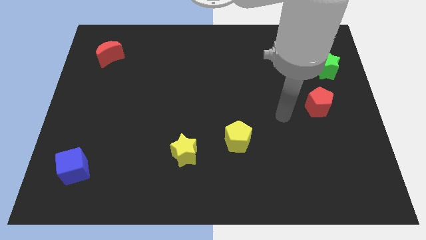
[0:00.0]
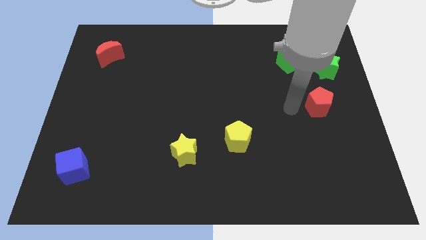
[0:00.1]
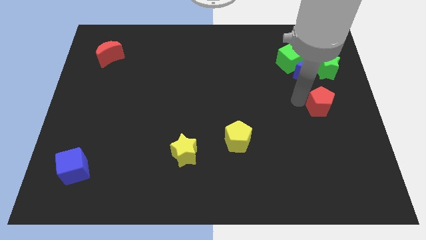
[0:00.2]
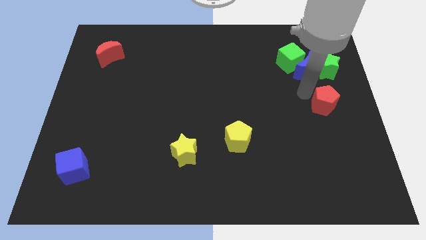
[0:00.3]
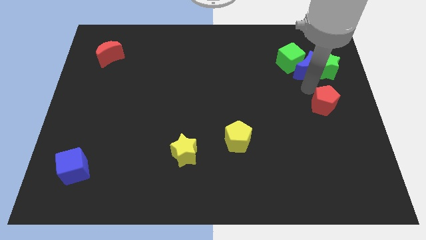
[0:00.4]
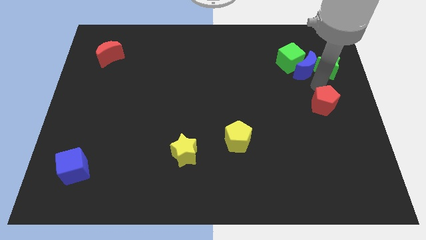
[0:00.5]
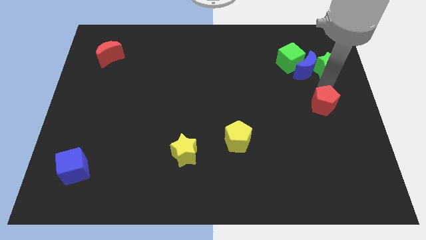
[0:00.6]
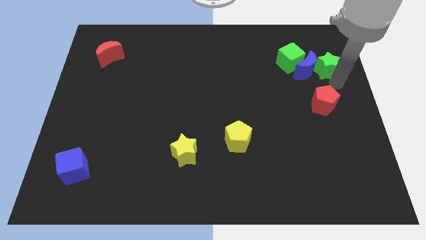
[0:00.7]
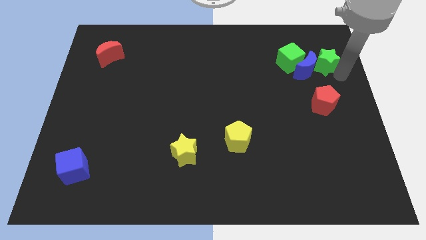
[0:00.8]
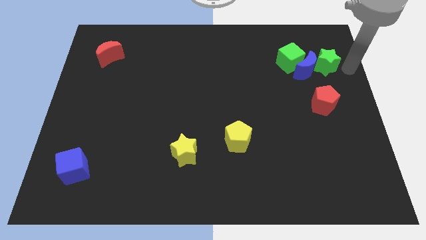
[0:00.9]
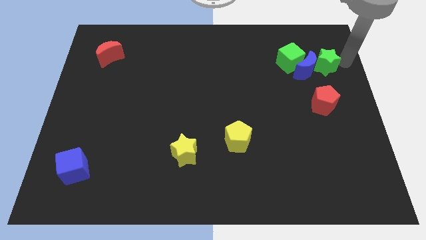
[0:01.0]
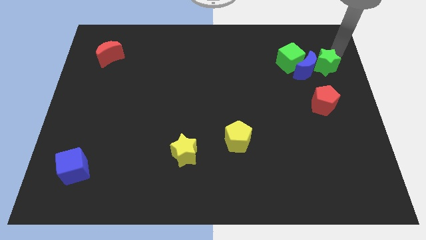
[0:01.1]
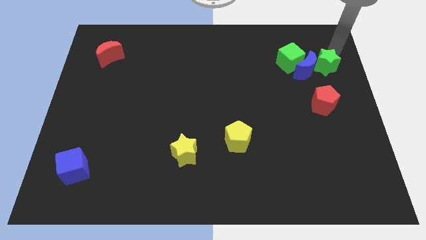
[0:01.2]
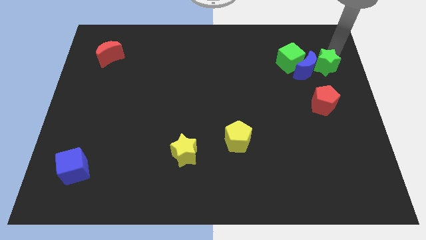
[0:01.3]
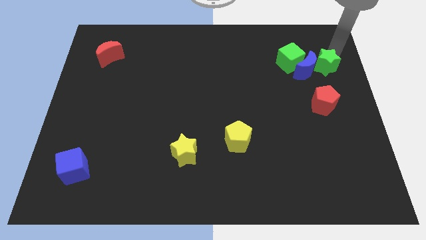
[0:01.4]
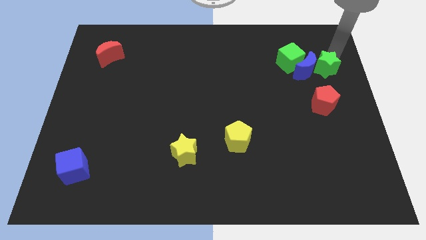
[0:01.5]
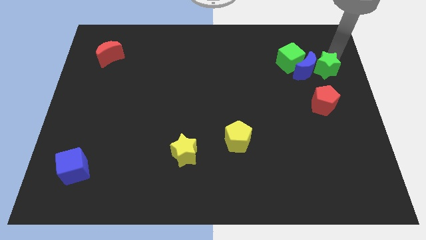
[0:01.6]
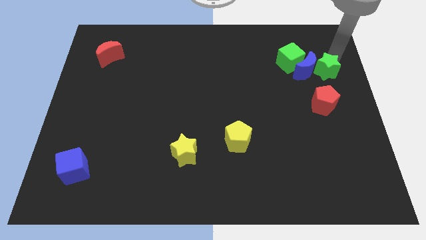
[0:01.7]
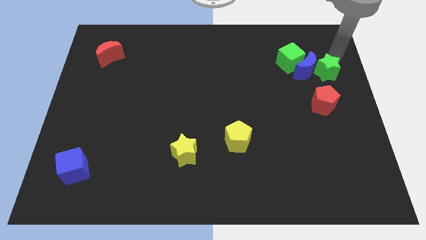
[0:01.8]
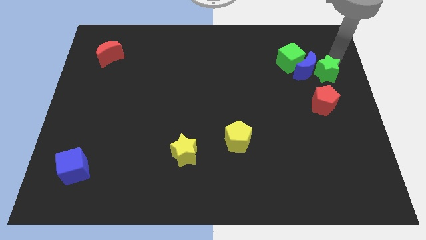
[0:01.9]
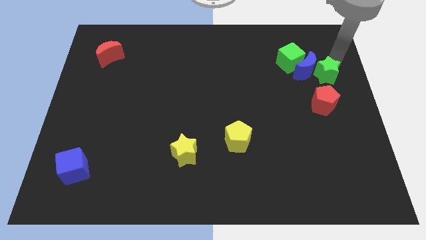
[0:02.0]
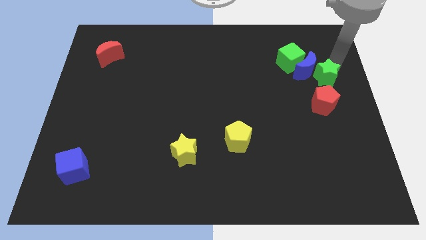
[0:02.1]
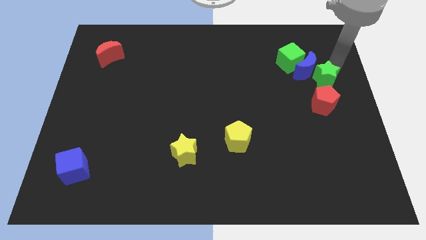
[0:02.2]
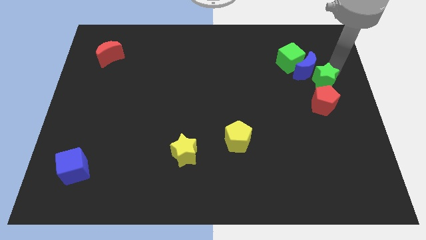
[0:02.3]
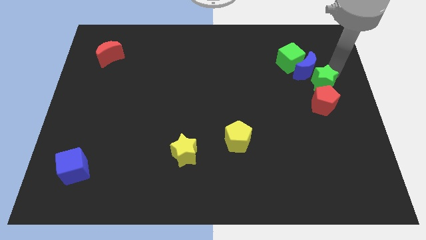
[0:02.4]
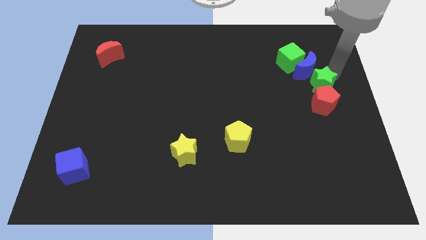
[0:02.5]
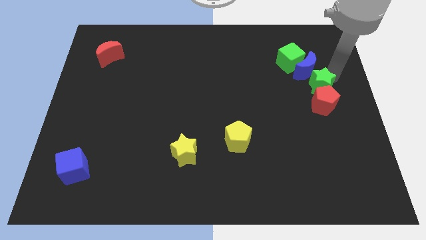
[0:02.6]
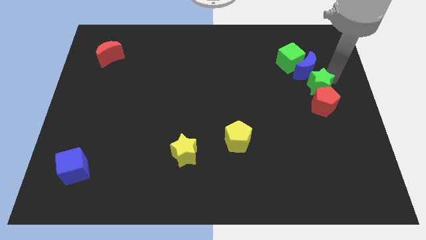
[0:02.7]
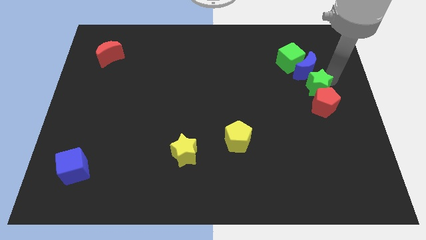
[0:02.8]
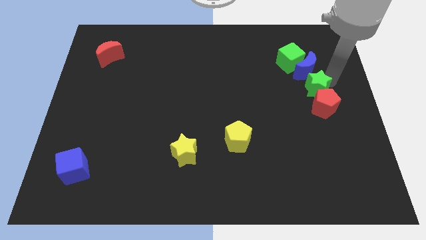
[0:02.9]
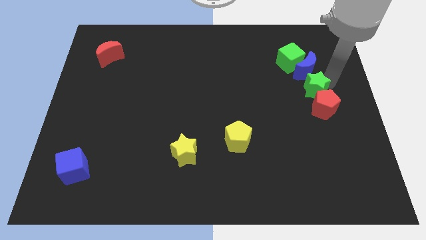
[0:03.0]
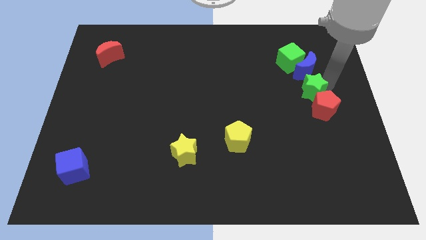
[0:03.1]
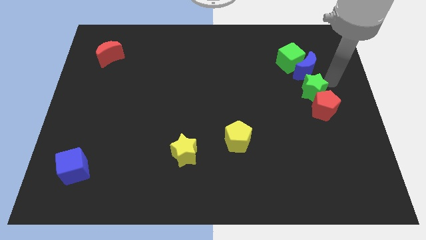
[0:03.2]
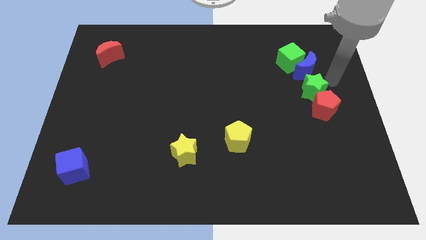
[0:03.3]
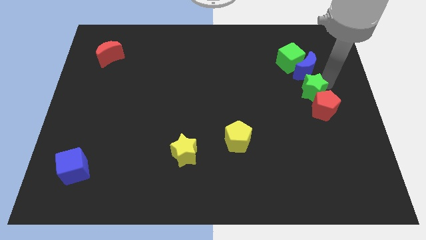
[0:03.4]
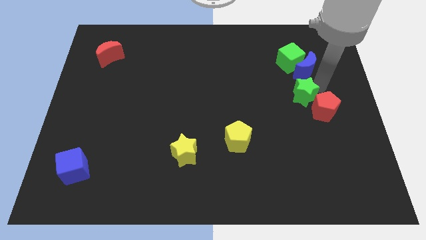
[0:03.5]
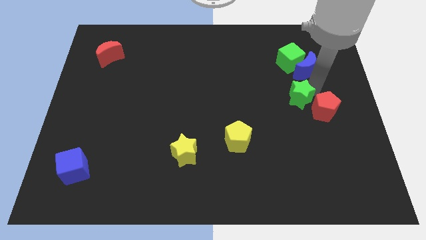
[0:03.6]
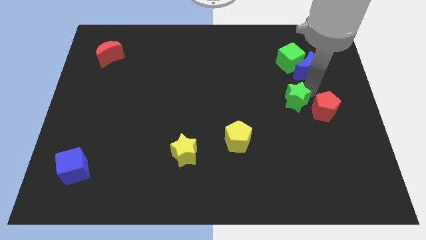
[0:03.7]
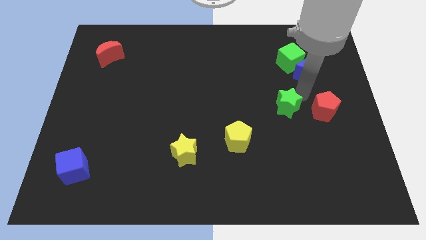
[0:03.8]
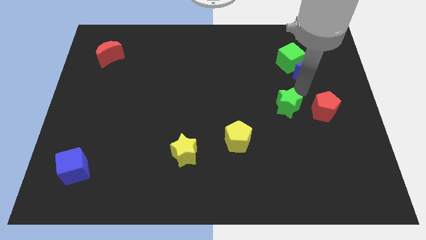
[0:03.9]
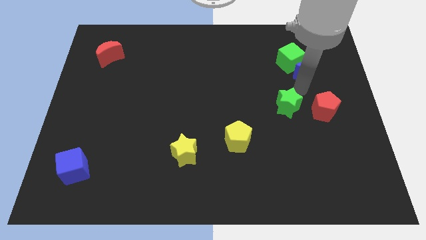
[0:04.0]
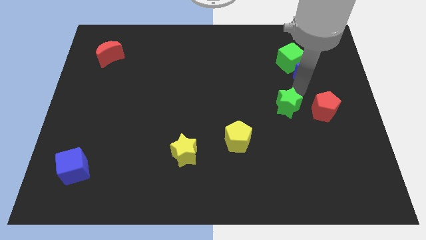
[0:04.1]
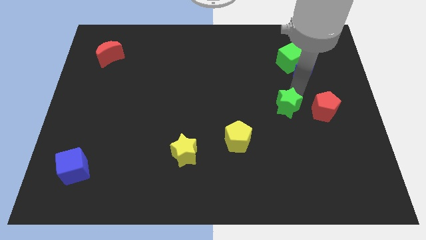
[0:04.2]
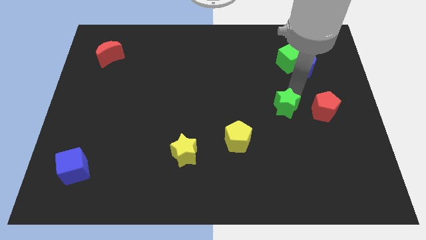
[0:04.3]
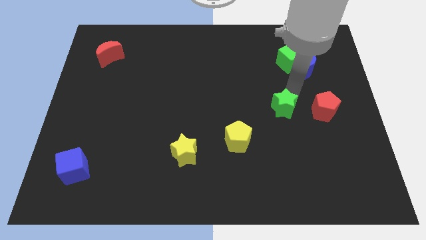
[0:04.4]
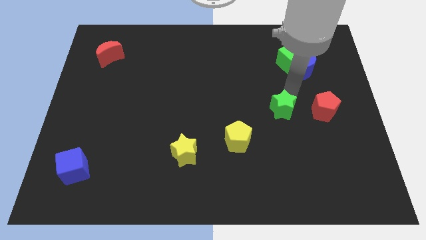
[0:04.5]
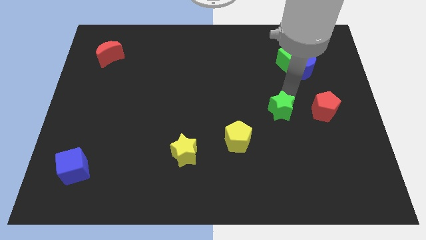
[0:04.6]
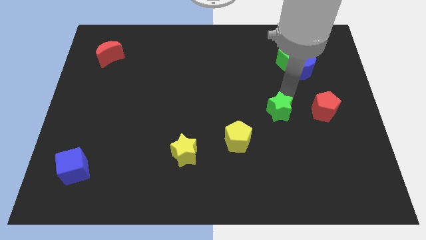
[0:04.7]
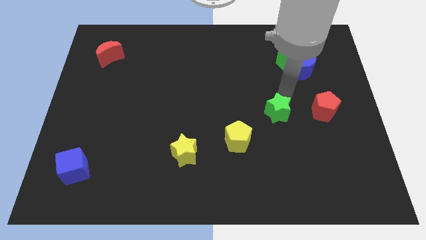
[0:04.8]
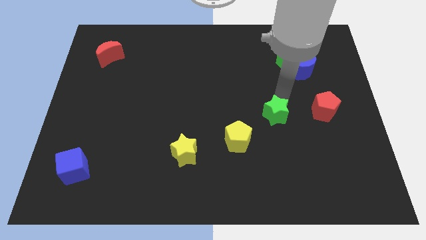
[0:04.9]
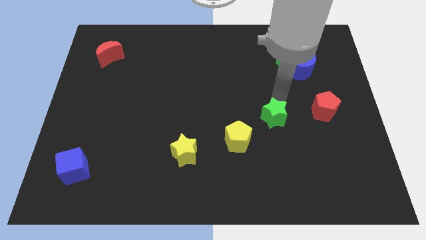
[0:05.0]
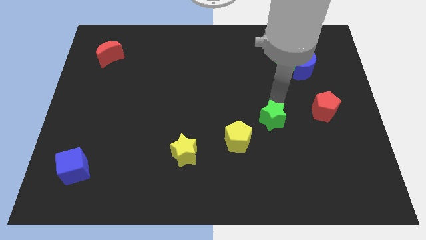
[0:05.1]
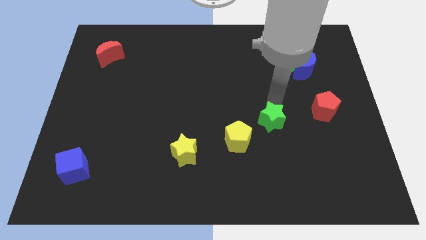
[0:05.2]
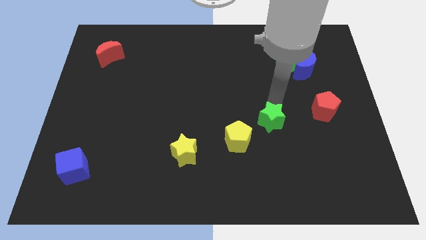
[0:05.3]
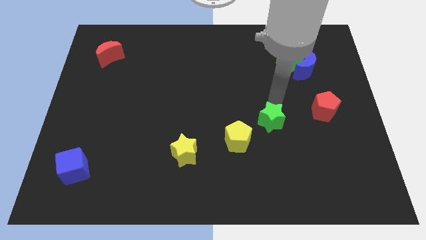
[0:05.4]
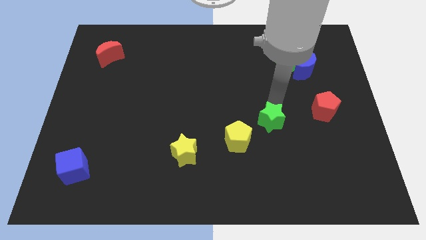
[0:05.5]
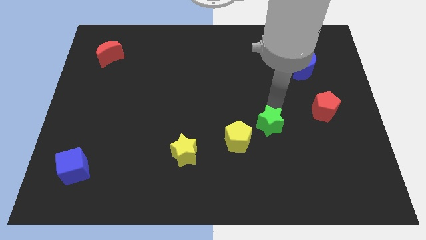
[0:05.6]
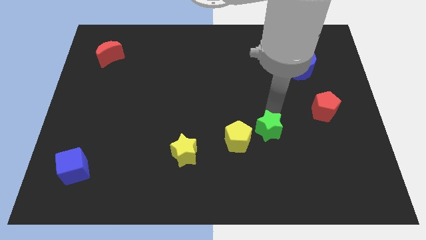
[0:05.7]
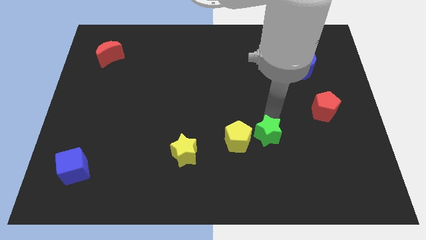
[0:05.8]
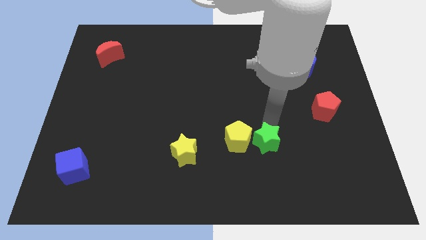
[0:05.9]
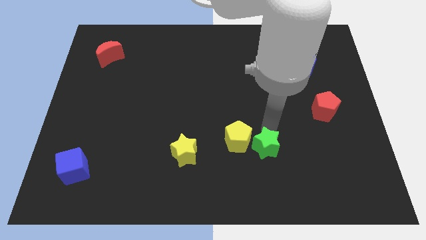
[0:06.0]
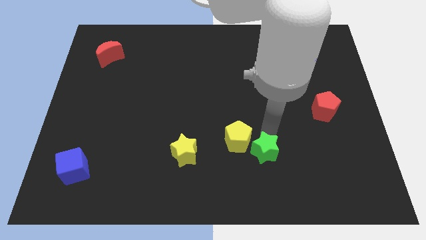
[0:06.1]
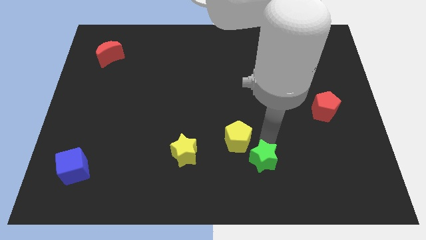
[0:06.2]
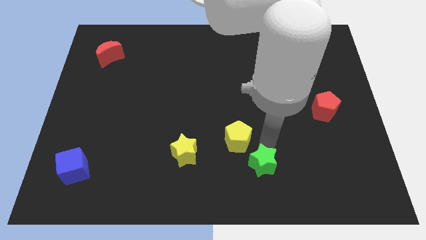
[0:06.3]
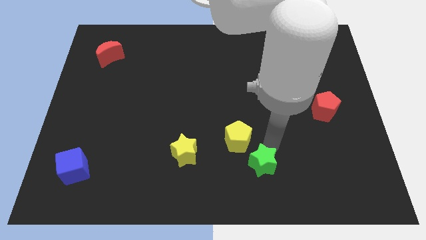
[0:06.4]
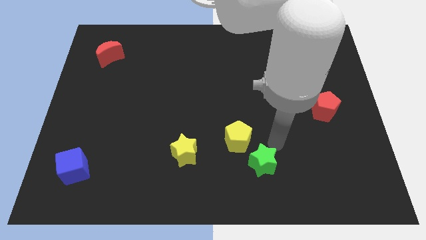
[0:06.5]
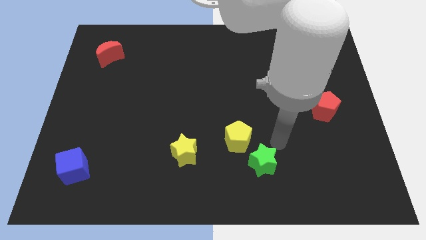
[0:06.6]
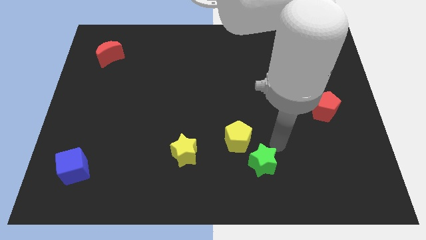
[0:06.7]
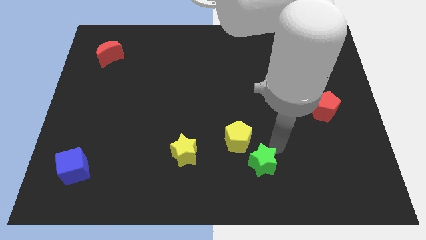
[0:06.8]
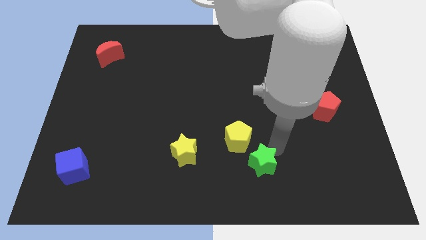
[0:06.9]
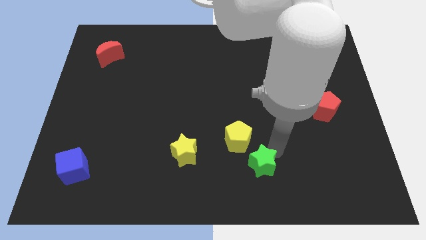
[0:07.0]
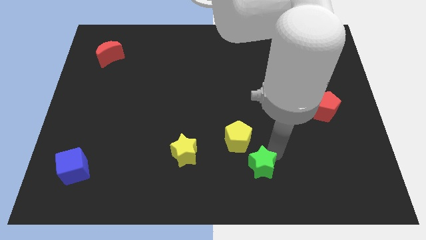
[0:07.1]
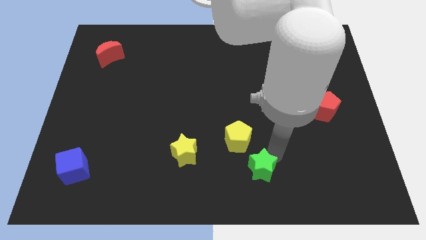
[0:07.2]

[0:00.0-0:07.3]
put the green star to the bottom side
